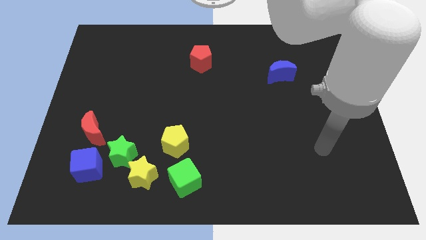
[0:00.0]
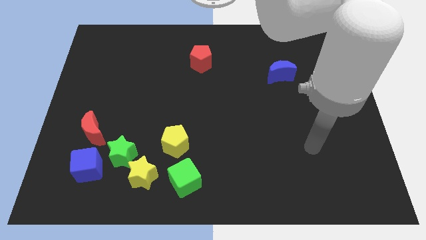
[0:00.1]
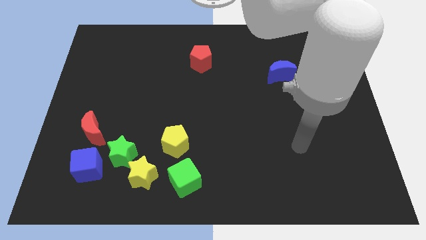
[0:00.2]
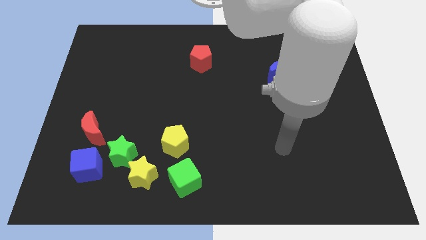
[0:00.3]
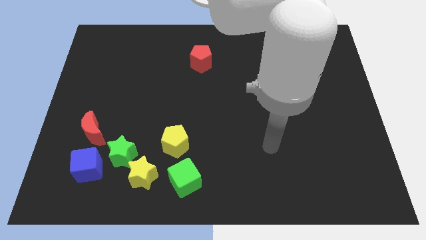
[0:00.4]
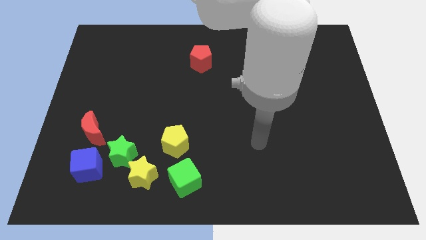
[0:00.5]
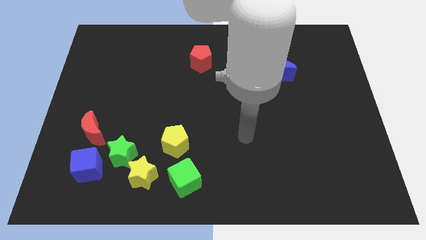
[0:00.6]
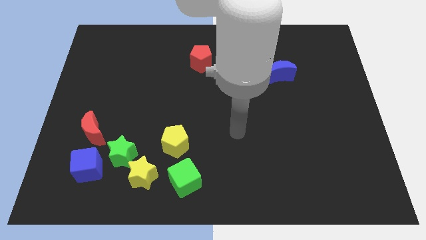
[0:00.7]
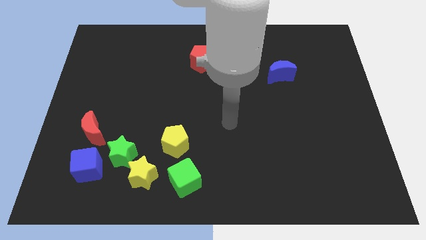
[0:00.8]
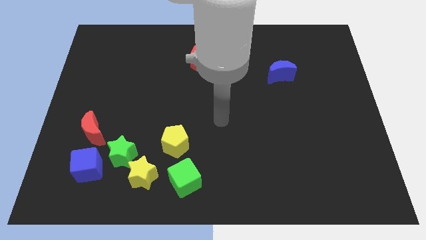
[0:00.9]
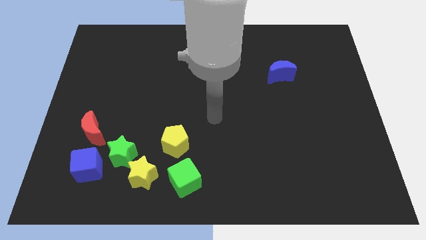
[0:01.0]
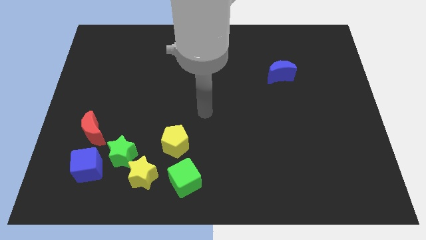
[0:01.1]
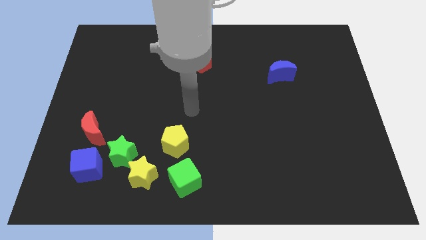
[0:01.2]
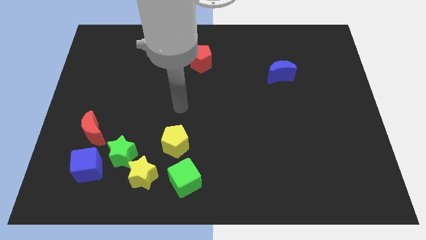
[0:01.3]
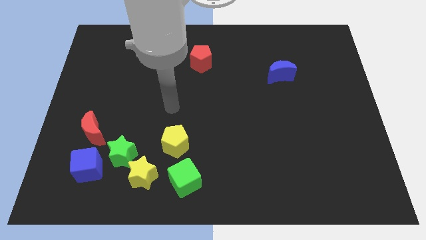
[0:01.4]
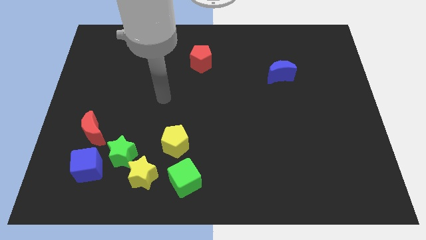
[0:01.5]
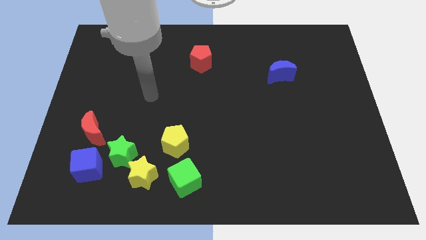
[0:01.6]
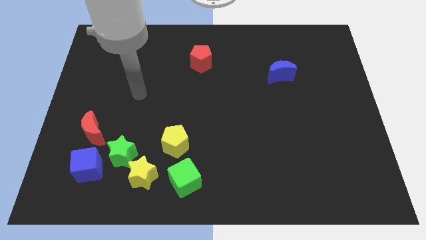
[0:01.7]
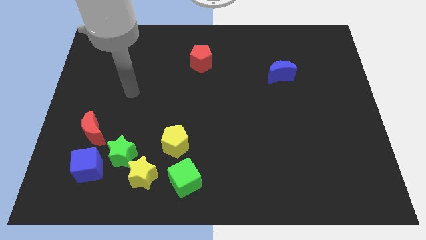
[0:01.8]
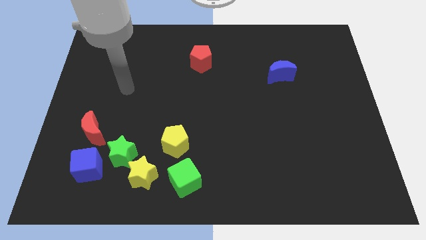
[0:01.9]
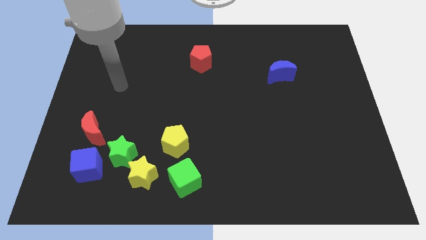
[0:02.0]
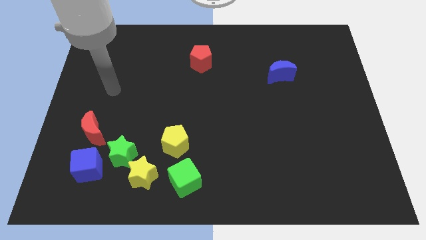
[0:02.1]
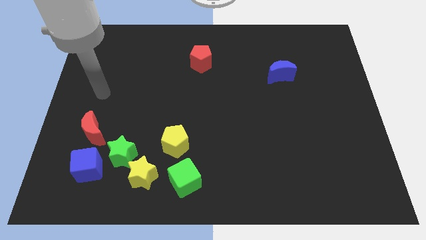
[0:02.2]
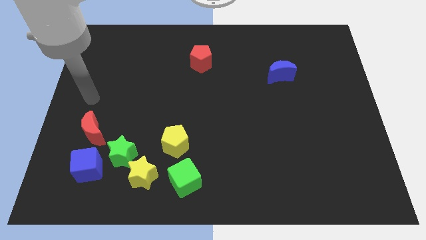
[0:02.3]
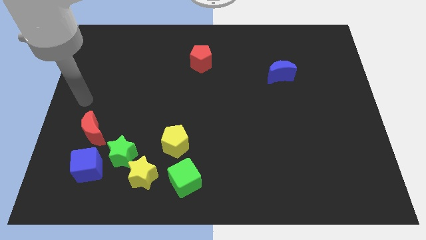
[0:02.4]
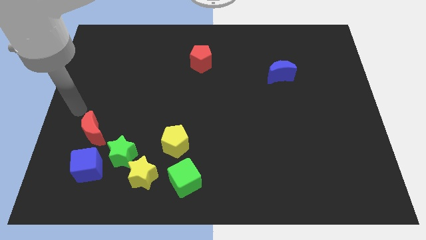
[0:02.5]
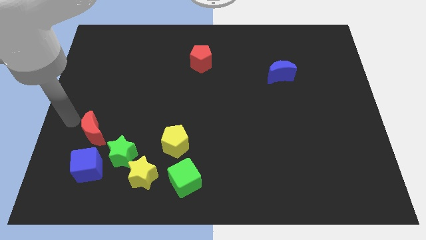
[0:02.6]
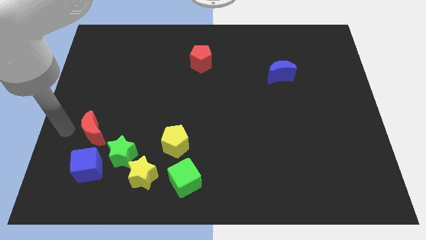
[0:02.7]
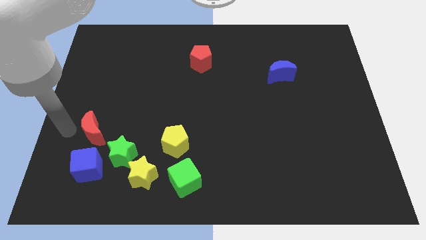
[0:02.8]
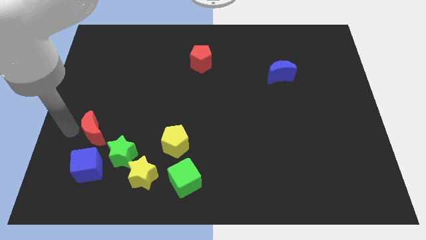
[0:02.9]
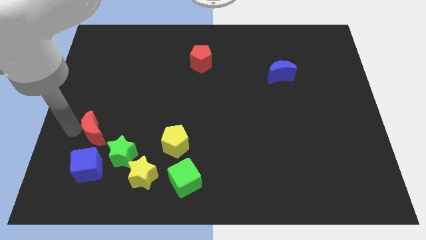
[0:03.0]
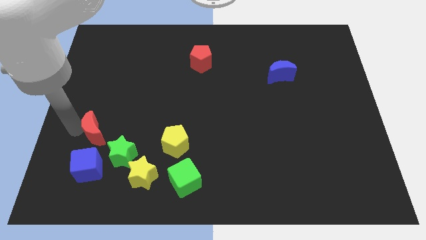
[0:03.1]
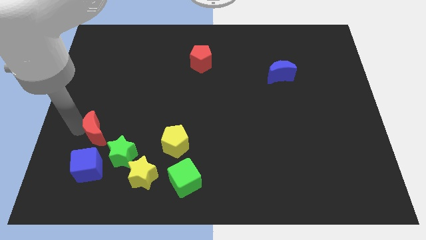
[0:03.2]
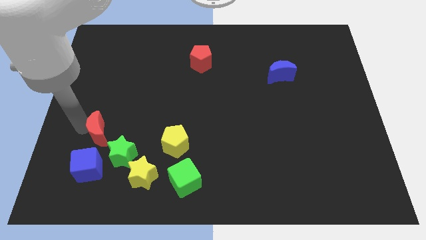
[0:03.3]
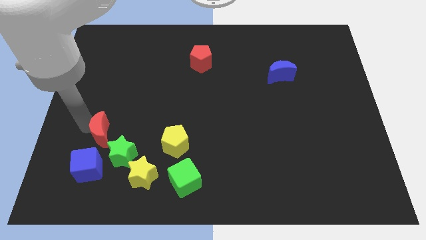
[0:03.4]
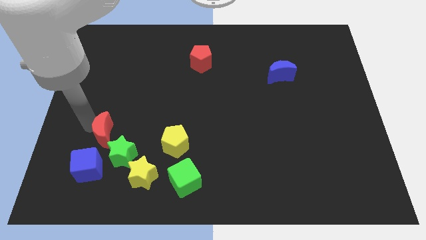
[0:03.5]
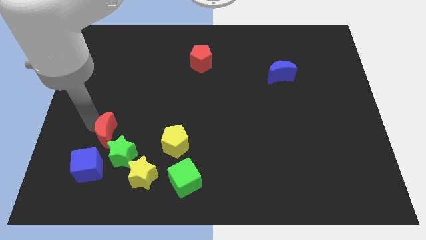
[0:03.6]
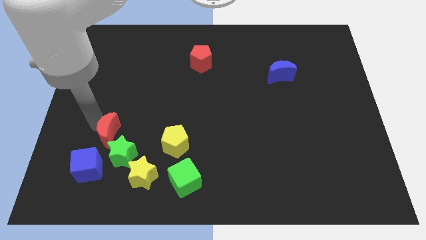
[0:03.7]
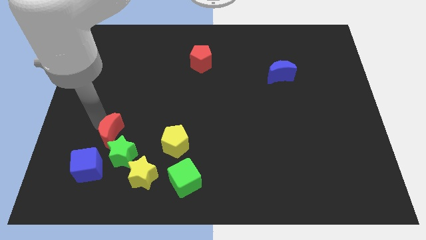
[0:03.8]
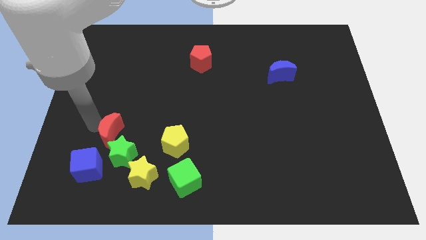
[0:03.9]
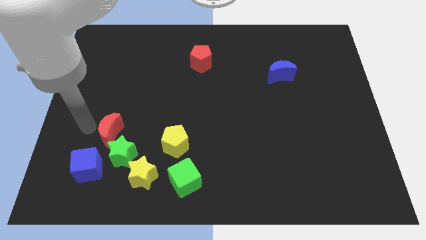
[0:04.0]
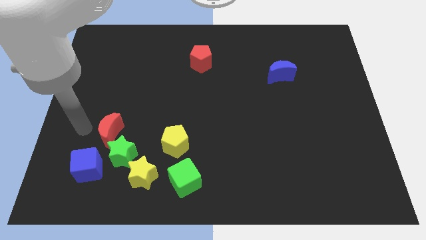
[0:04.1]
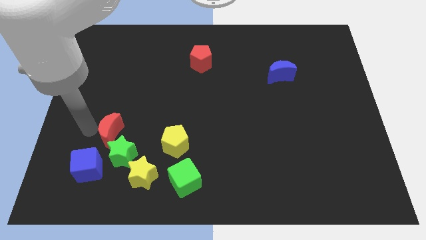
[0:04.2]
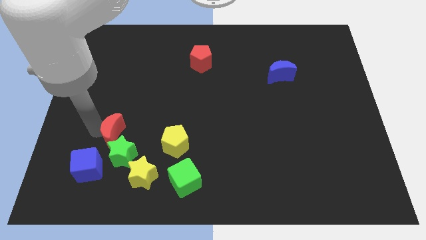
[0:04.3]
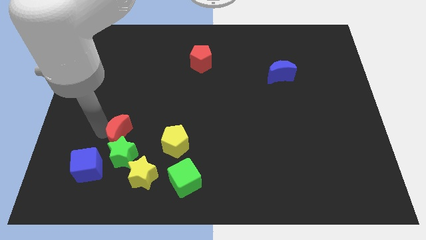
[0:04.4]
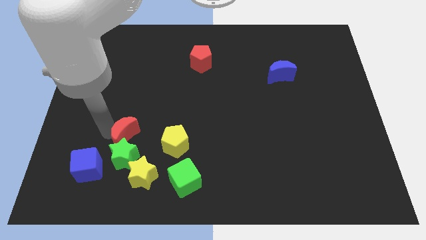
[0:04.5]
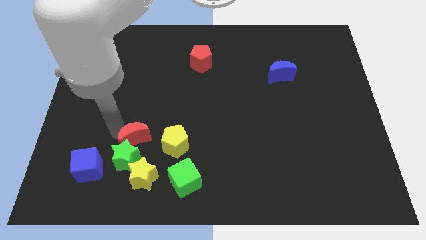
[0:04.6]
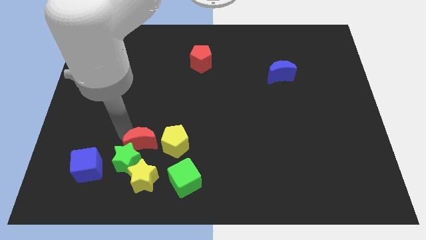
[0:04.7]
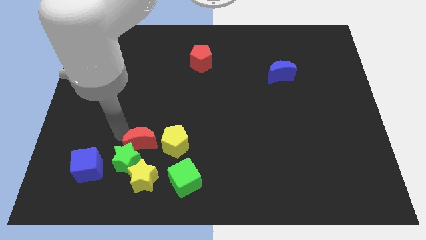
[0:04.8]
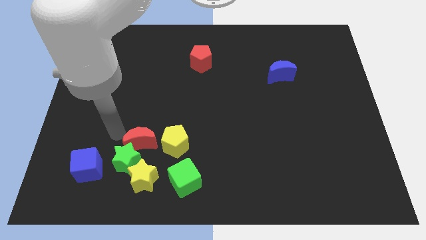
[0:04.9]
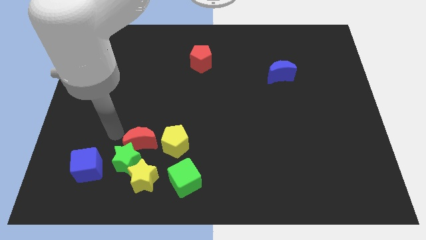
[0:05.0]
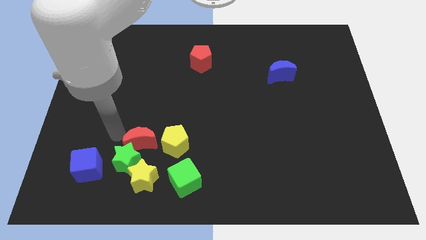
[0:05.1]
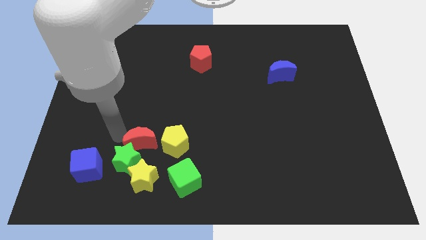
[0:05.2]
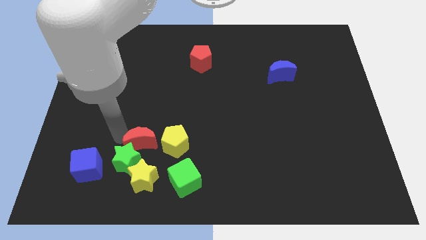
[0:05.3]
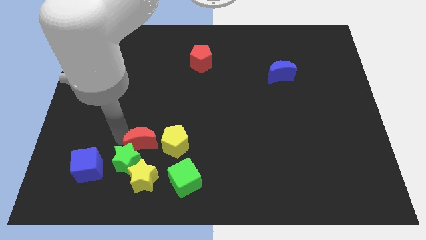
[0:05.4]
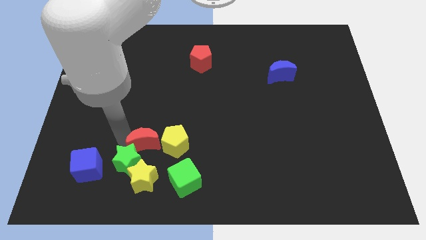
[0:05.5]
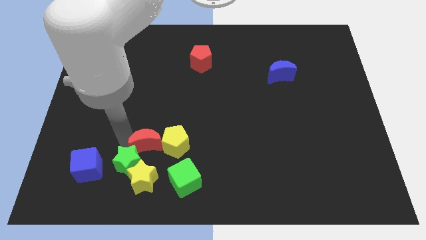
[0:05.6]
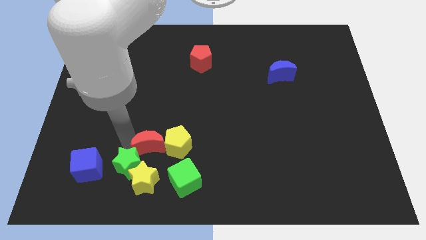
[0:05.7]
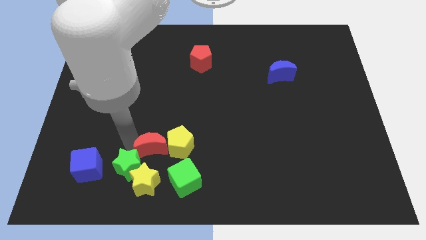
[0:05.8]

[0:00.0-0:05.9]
slide the red moon next to the yellow pentagon
